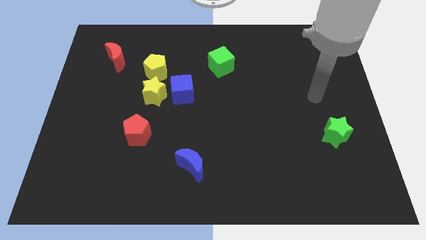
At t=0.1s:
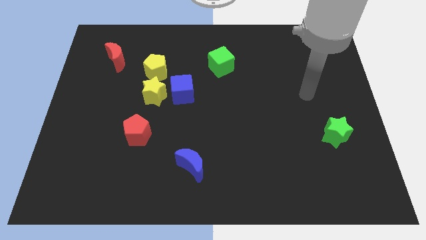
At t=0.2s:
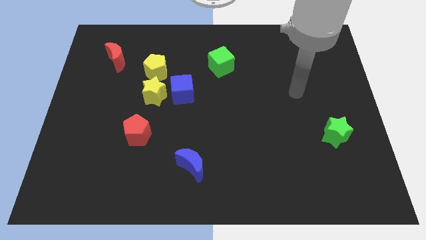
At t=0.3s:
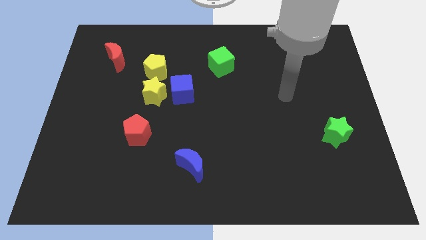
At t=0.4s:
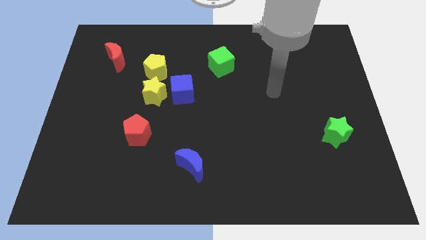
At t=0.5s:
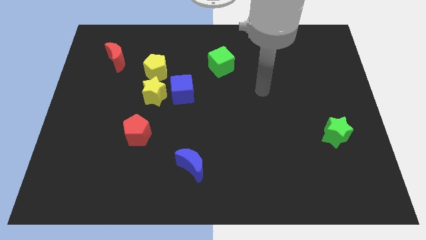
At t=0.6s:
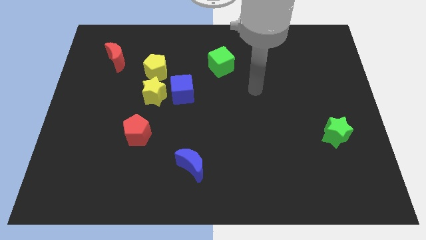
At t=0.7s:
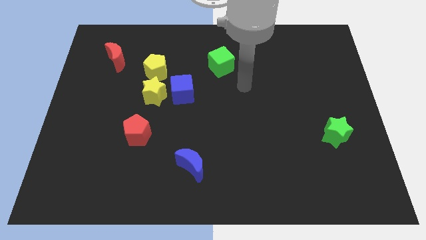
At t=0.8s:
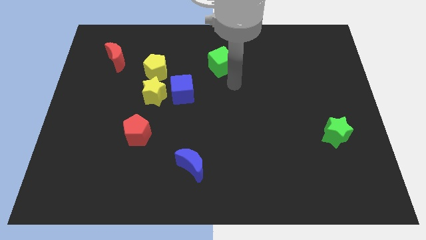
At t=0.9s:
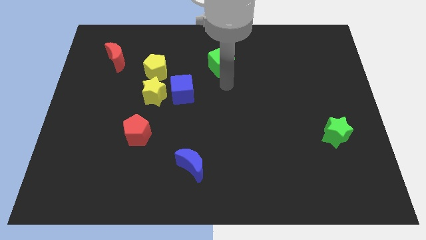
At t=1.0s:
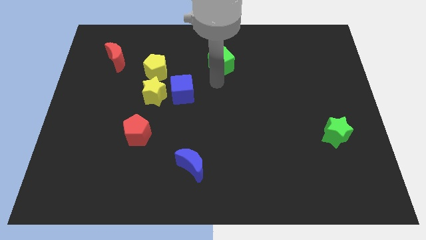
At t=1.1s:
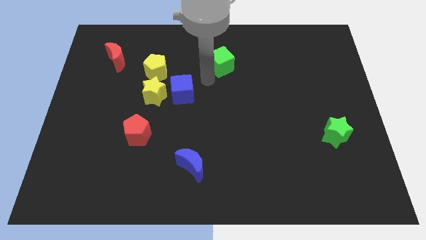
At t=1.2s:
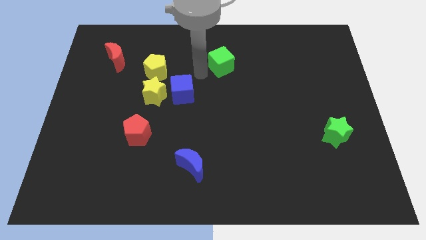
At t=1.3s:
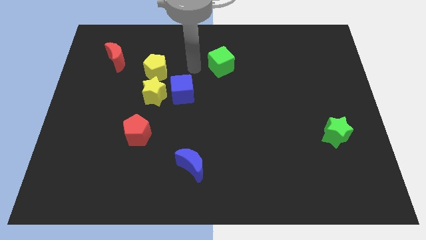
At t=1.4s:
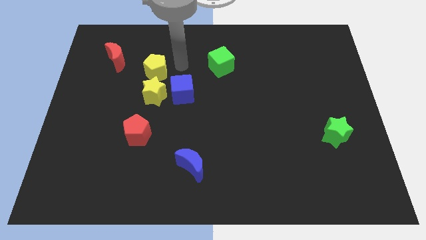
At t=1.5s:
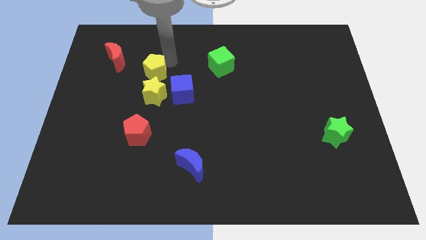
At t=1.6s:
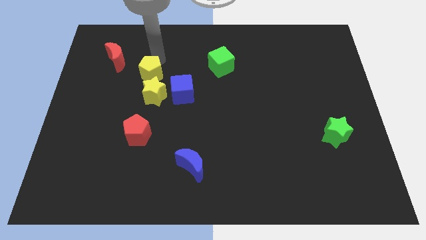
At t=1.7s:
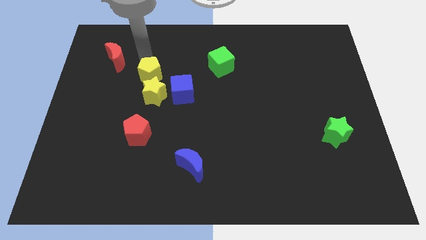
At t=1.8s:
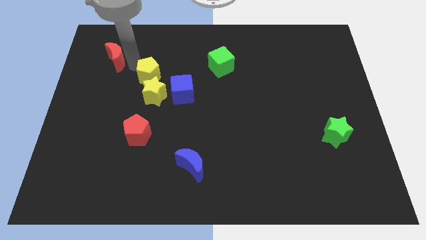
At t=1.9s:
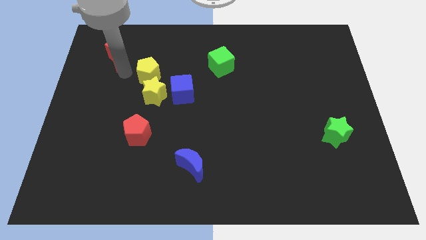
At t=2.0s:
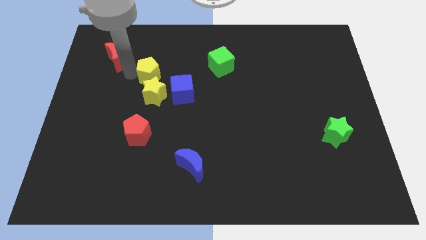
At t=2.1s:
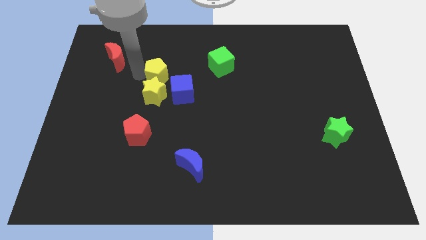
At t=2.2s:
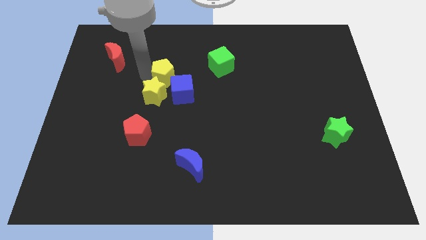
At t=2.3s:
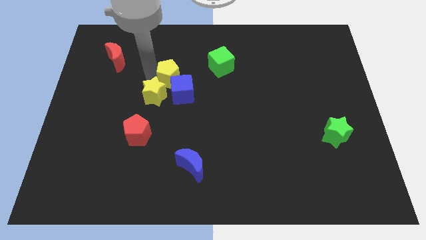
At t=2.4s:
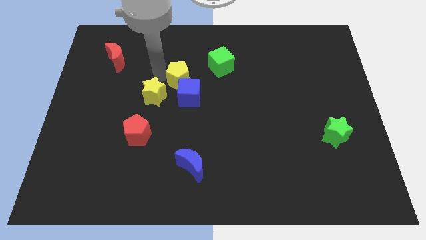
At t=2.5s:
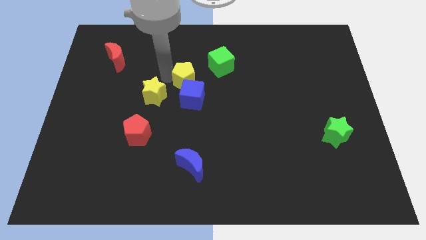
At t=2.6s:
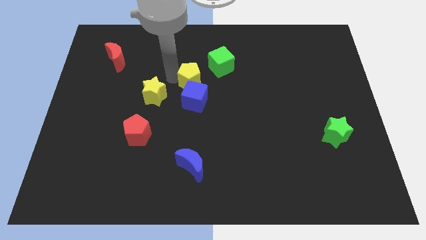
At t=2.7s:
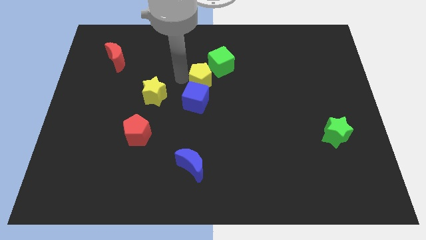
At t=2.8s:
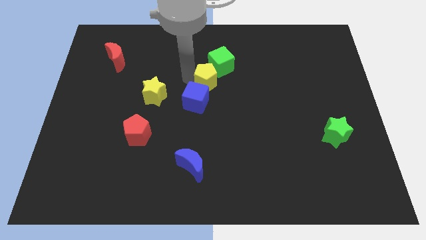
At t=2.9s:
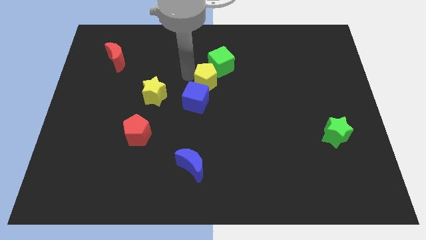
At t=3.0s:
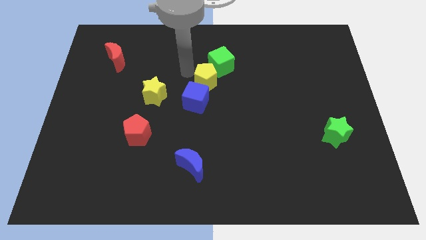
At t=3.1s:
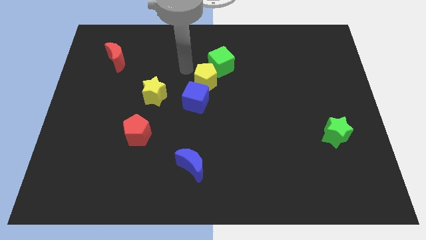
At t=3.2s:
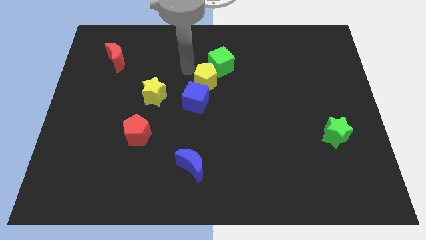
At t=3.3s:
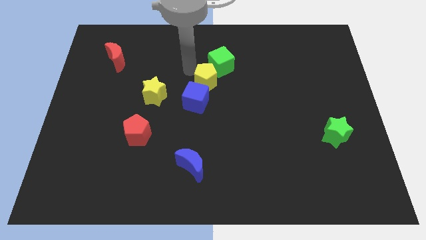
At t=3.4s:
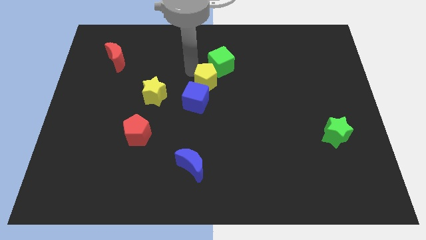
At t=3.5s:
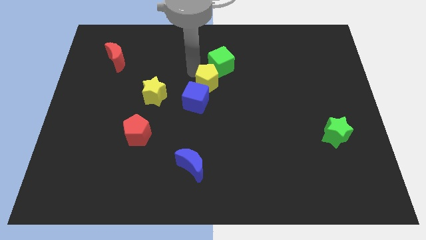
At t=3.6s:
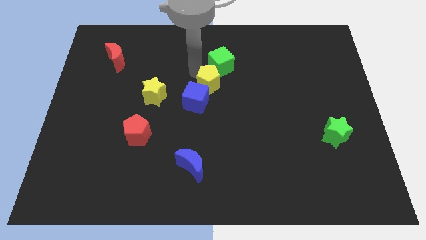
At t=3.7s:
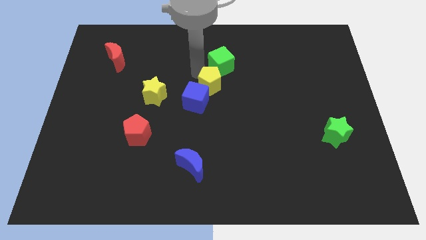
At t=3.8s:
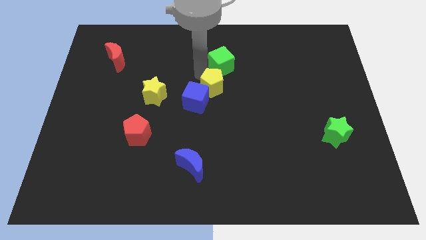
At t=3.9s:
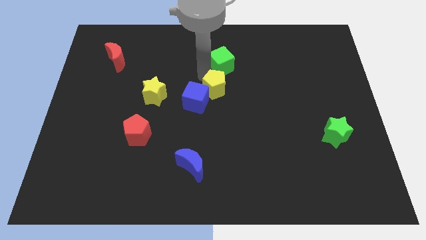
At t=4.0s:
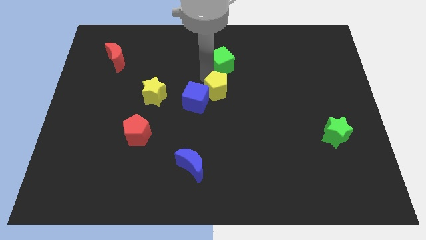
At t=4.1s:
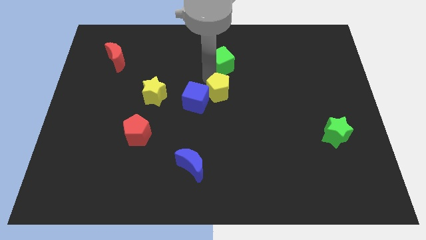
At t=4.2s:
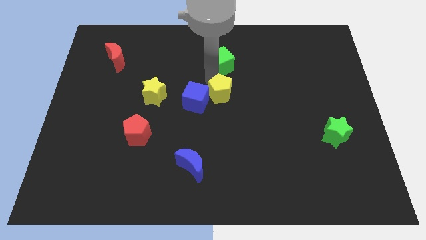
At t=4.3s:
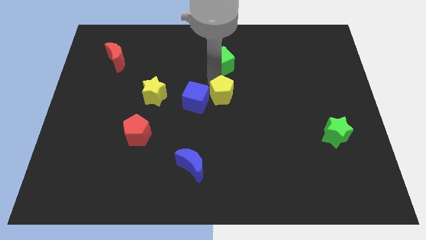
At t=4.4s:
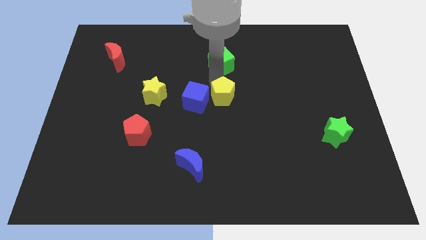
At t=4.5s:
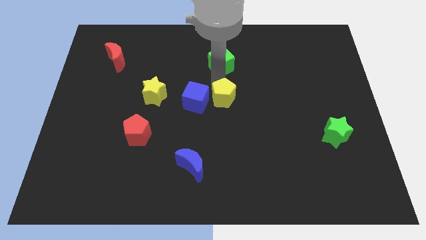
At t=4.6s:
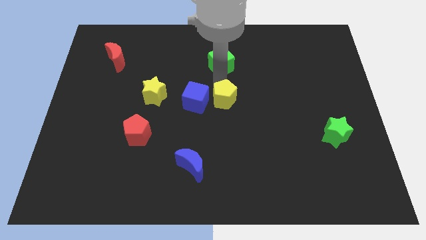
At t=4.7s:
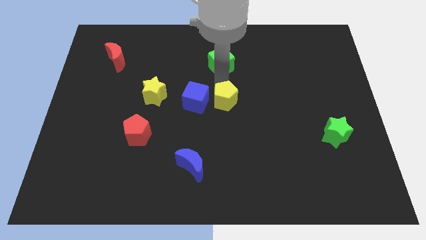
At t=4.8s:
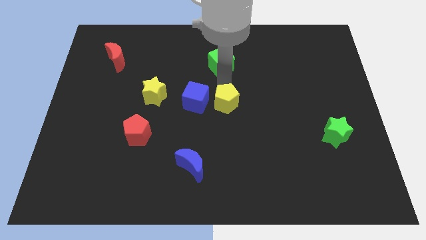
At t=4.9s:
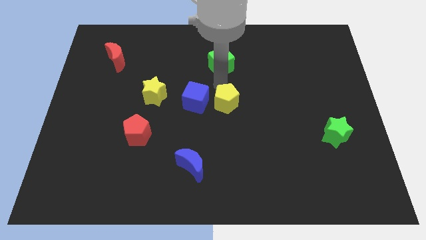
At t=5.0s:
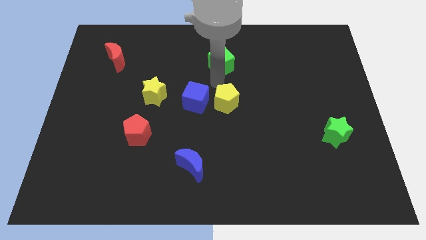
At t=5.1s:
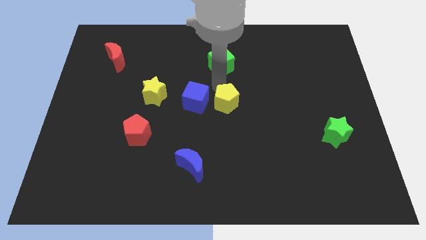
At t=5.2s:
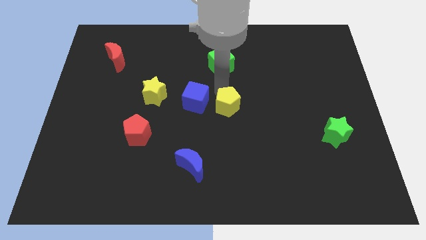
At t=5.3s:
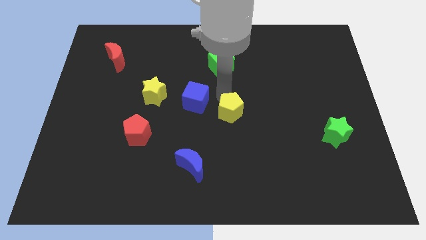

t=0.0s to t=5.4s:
slide the yellow pentagon downwards and to the right diagonally

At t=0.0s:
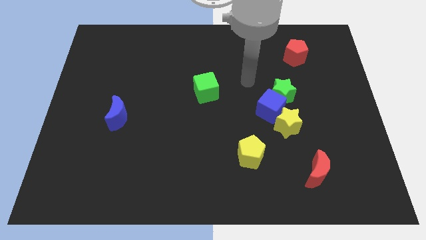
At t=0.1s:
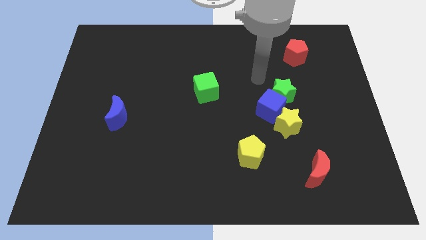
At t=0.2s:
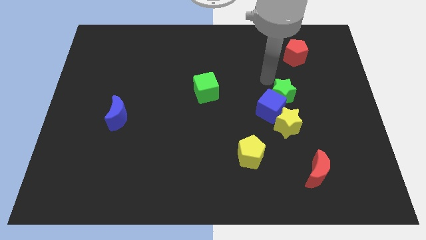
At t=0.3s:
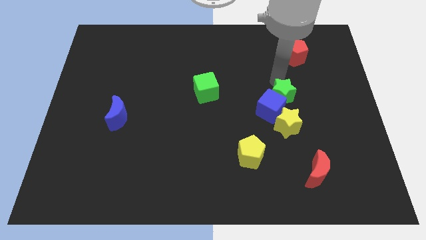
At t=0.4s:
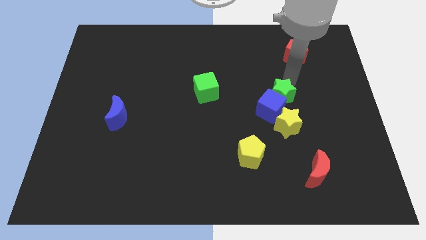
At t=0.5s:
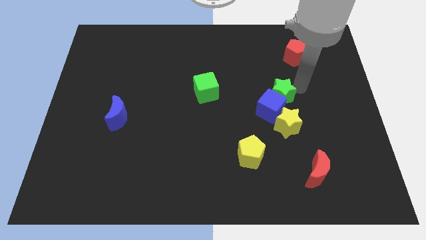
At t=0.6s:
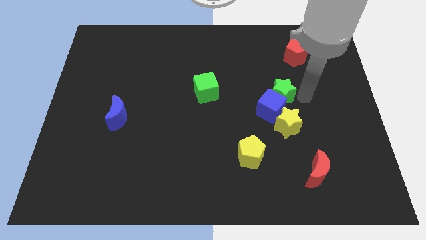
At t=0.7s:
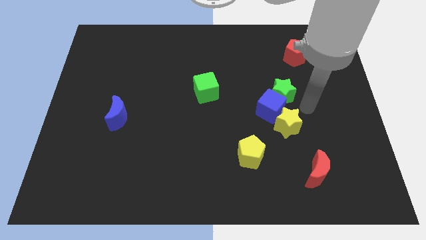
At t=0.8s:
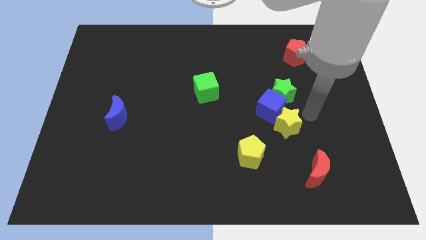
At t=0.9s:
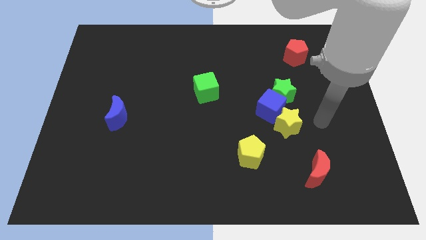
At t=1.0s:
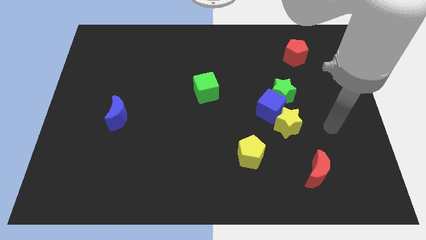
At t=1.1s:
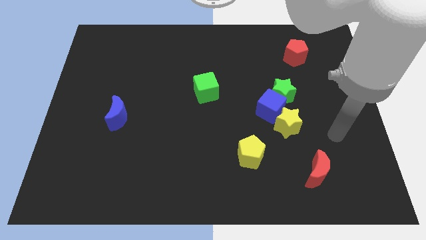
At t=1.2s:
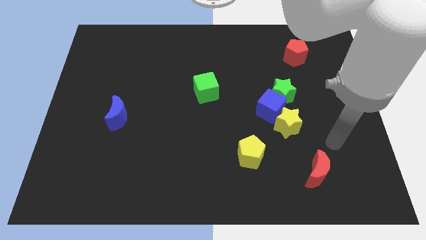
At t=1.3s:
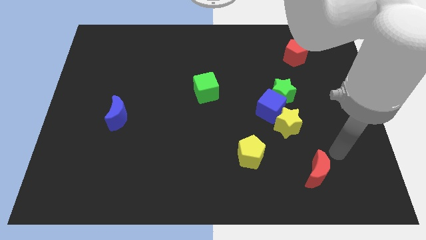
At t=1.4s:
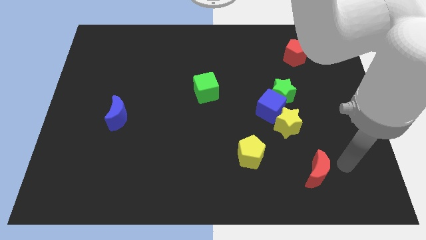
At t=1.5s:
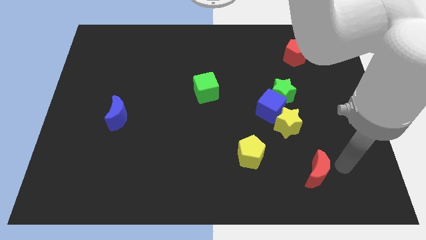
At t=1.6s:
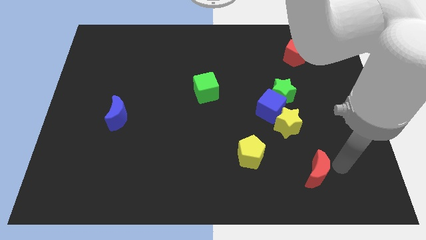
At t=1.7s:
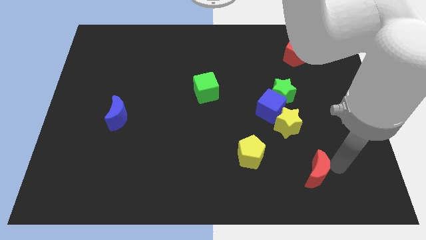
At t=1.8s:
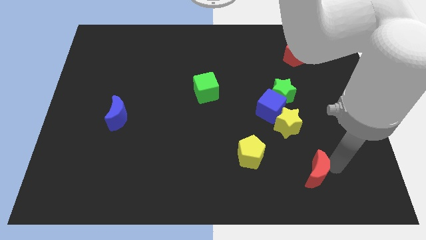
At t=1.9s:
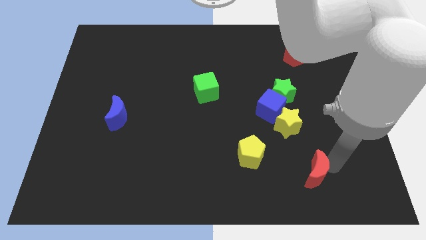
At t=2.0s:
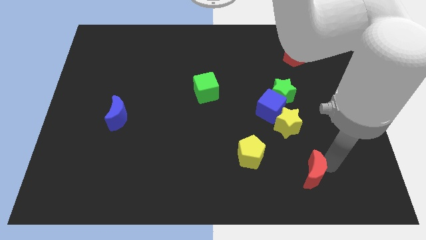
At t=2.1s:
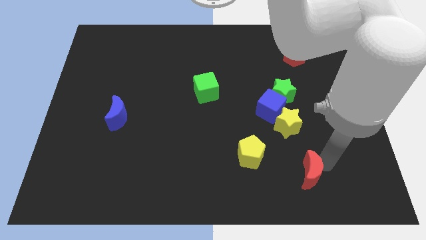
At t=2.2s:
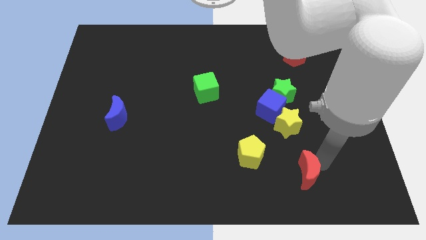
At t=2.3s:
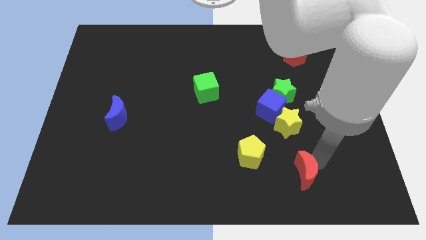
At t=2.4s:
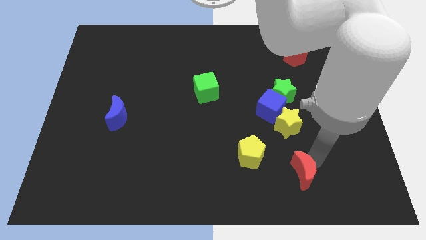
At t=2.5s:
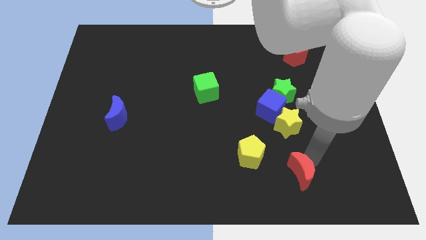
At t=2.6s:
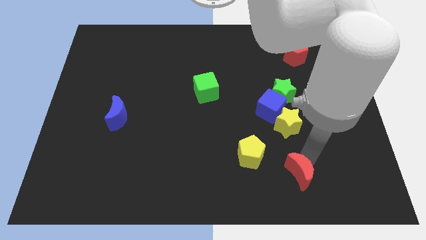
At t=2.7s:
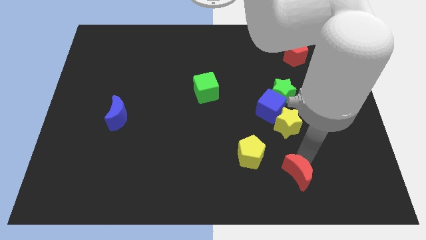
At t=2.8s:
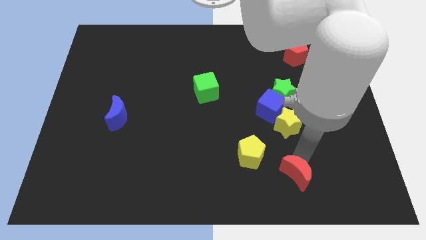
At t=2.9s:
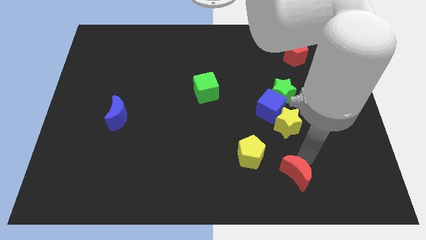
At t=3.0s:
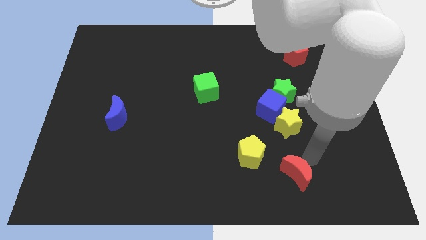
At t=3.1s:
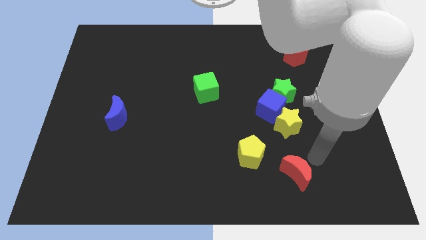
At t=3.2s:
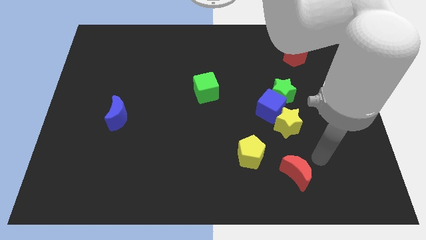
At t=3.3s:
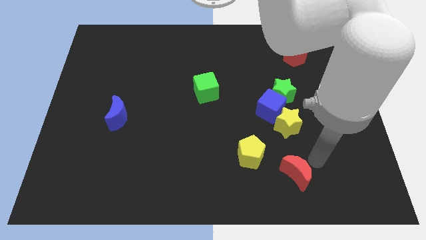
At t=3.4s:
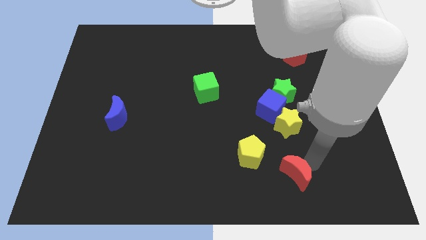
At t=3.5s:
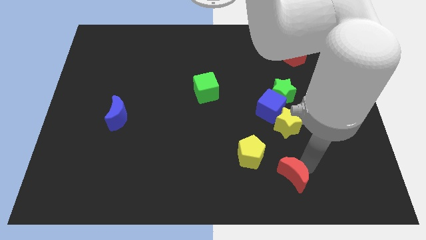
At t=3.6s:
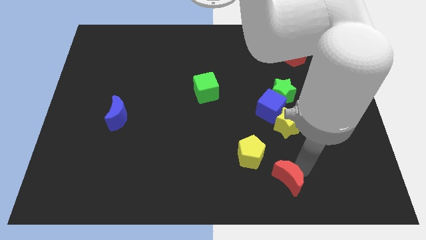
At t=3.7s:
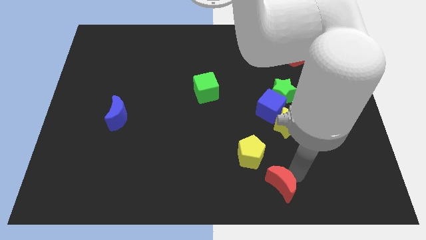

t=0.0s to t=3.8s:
slide the red moon a little bit left
